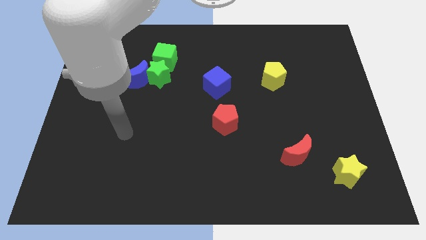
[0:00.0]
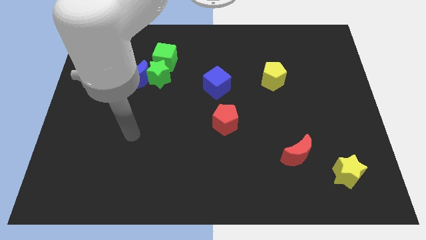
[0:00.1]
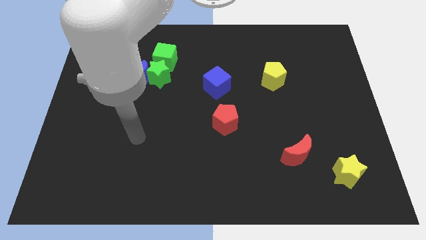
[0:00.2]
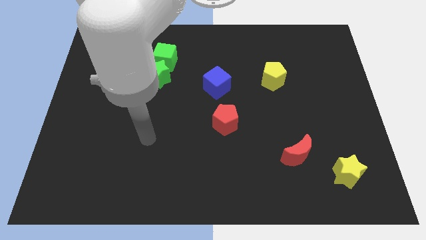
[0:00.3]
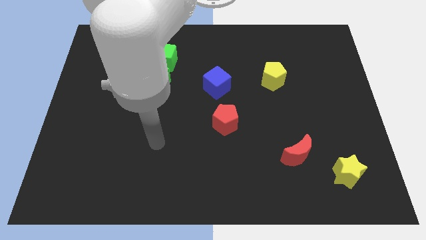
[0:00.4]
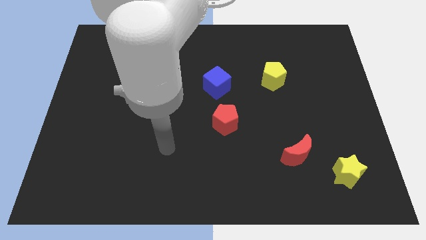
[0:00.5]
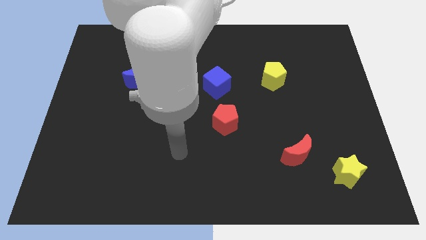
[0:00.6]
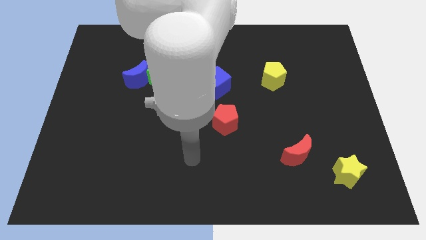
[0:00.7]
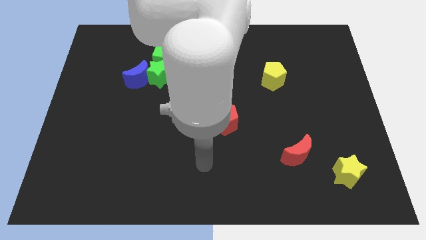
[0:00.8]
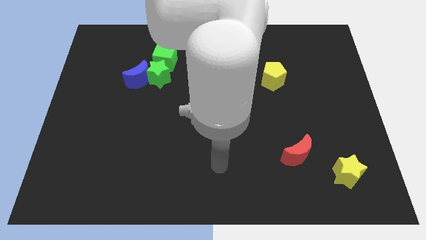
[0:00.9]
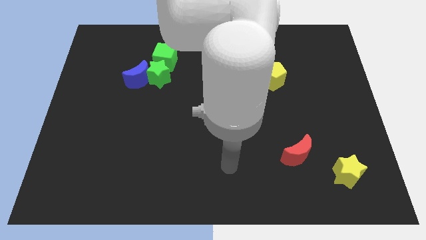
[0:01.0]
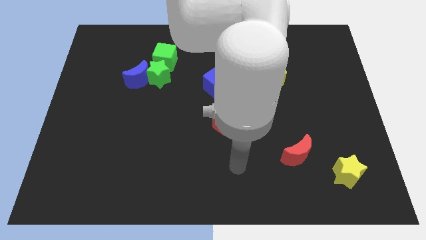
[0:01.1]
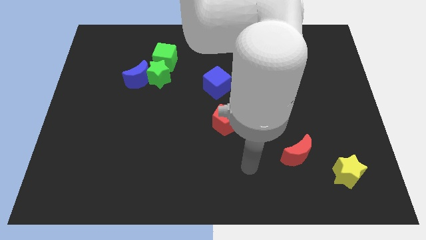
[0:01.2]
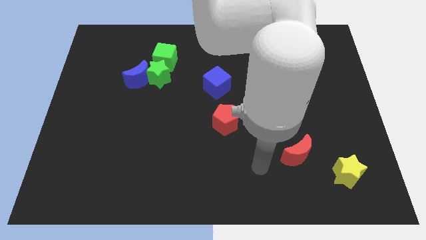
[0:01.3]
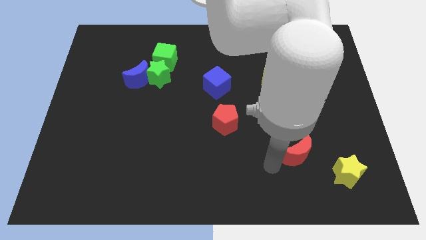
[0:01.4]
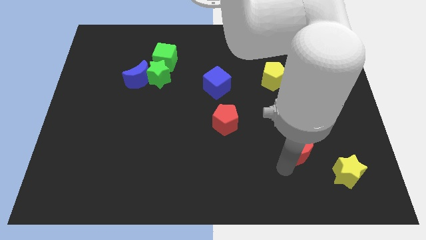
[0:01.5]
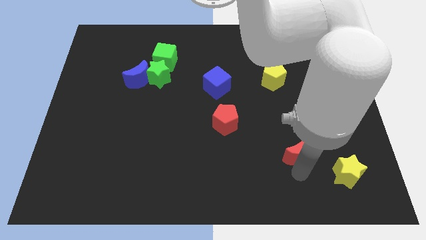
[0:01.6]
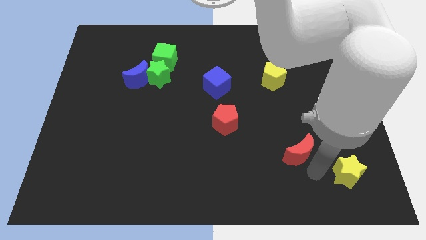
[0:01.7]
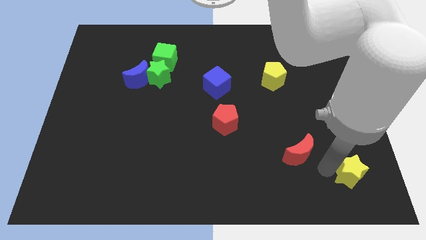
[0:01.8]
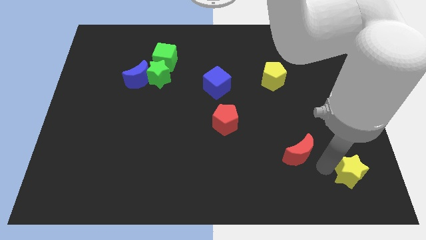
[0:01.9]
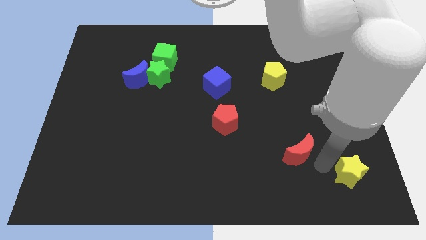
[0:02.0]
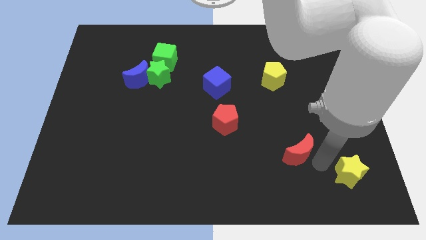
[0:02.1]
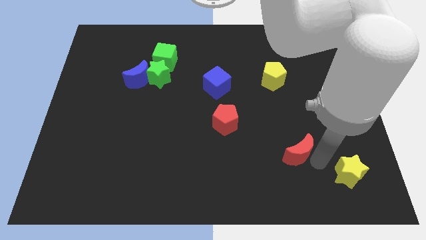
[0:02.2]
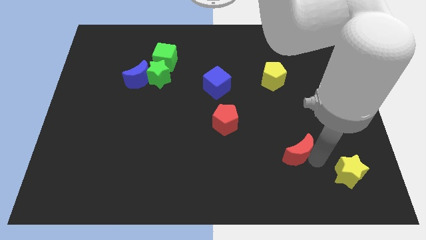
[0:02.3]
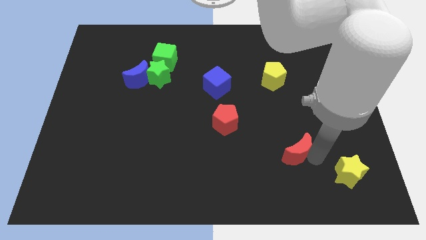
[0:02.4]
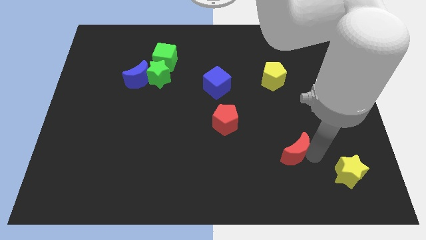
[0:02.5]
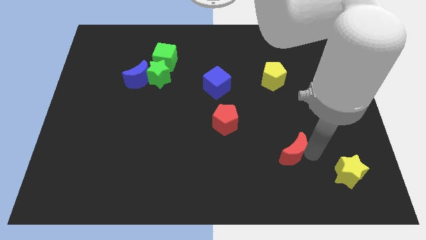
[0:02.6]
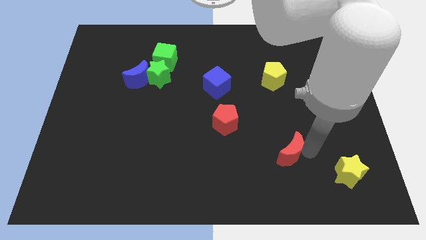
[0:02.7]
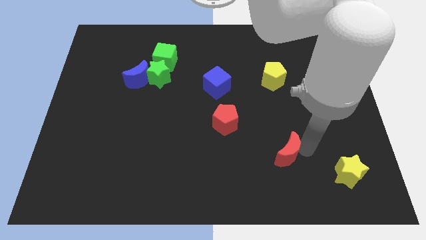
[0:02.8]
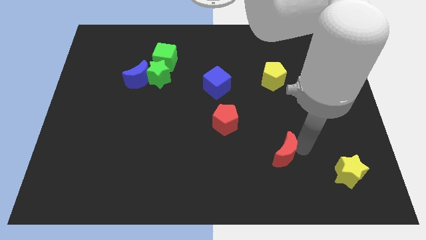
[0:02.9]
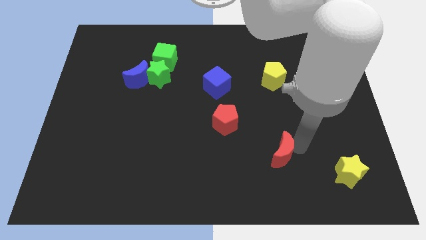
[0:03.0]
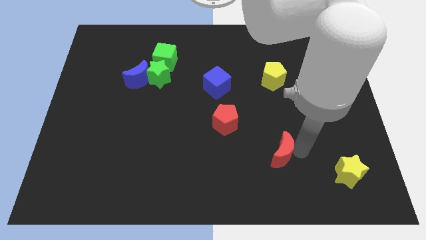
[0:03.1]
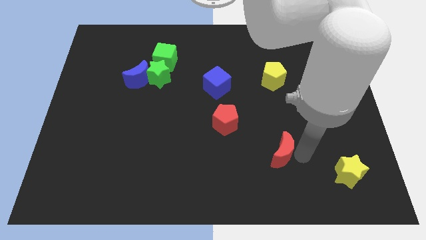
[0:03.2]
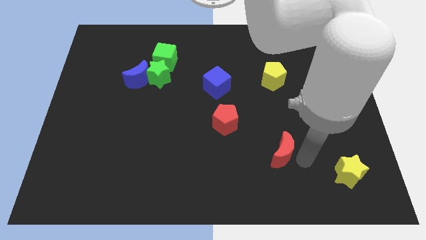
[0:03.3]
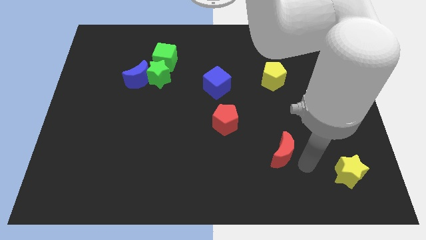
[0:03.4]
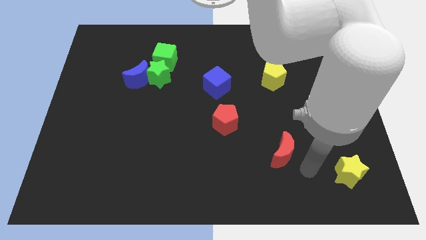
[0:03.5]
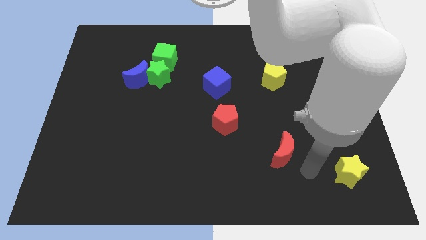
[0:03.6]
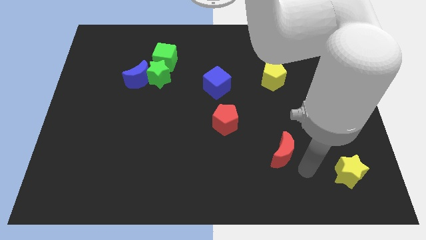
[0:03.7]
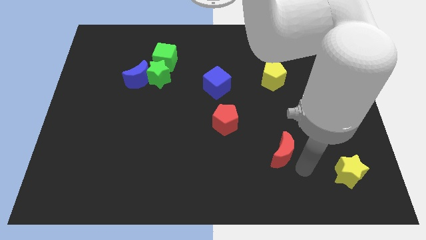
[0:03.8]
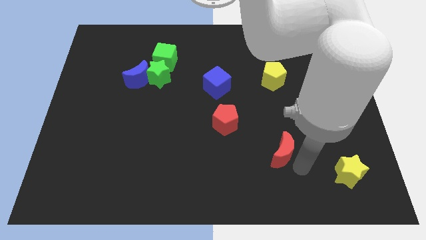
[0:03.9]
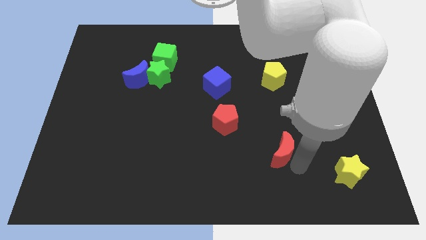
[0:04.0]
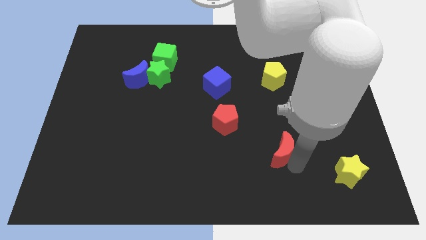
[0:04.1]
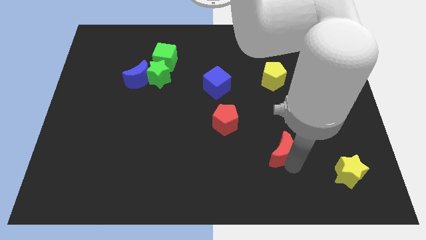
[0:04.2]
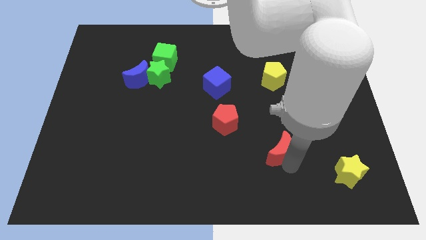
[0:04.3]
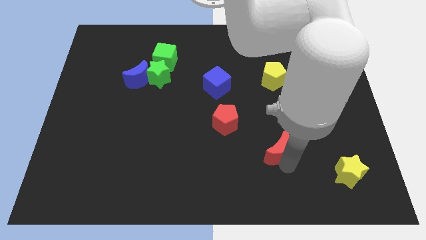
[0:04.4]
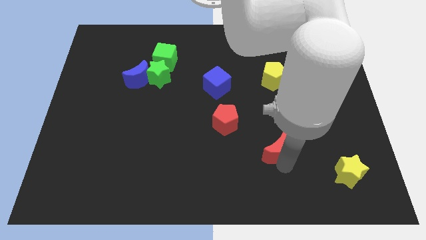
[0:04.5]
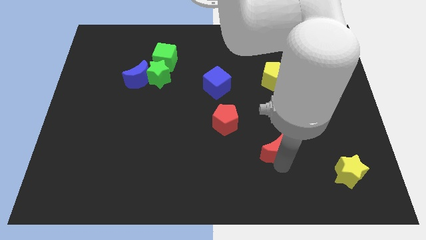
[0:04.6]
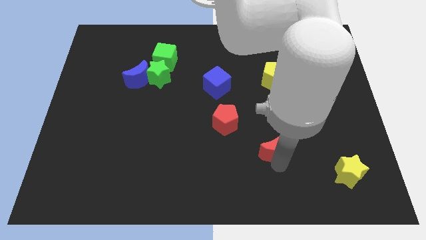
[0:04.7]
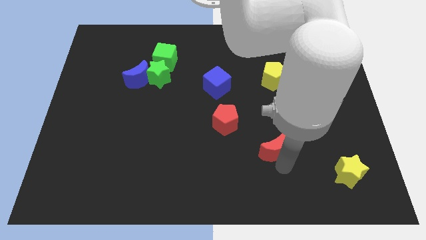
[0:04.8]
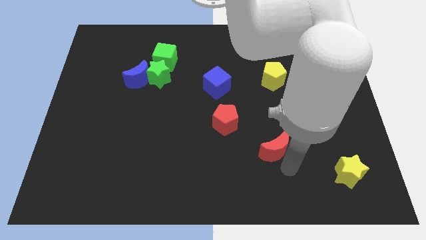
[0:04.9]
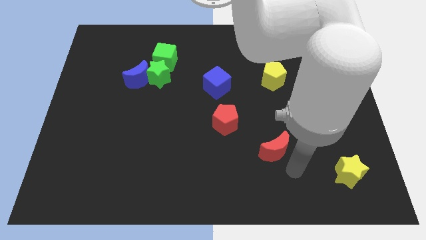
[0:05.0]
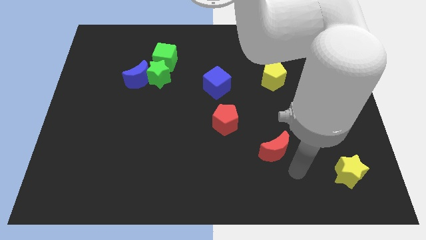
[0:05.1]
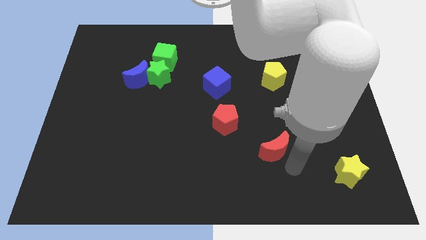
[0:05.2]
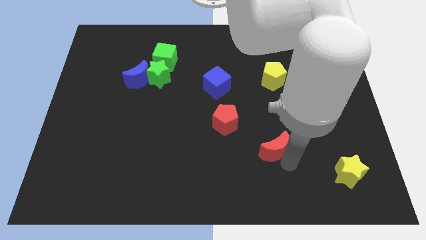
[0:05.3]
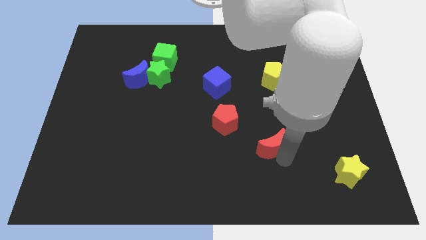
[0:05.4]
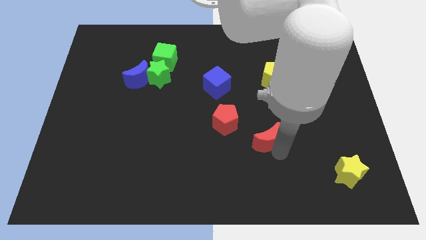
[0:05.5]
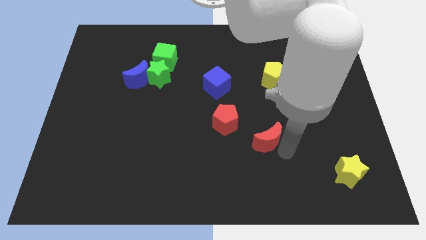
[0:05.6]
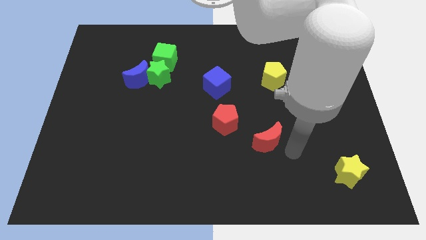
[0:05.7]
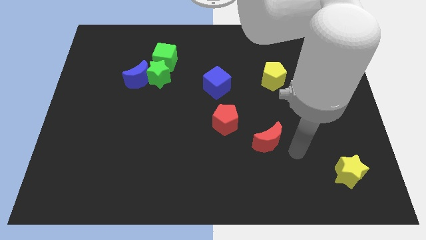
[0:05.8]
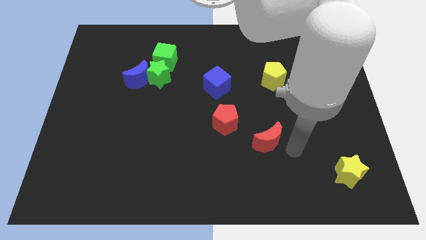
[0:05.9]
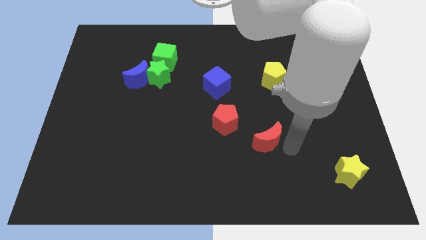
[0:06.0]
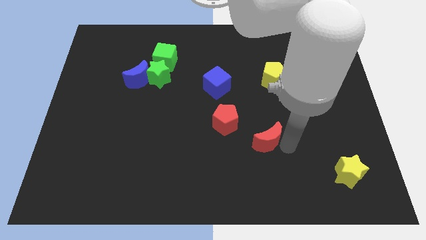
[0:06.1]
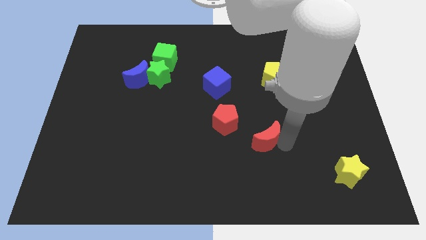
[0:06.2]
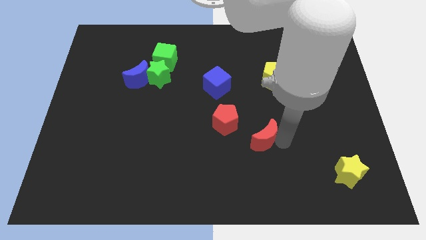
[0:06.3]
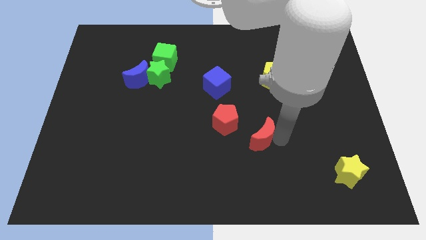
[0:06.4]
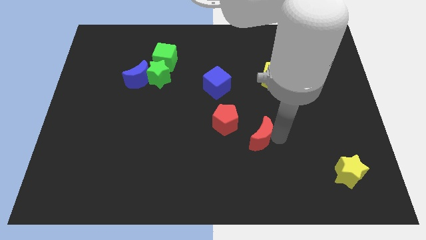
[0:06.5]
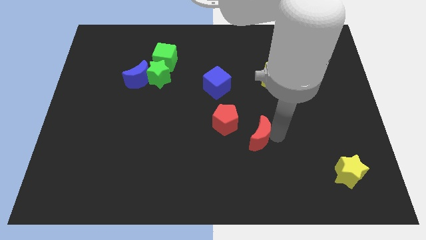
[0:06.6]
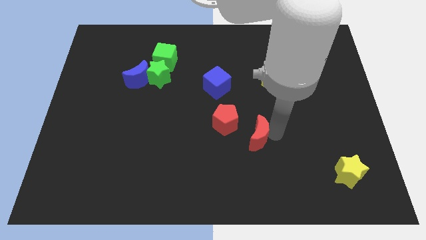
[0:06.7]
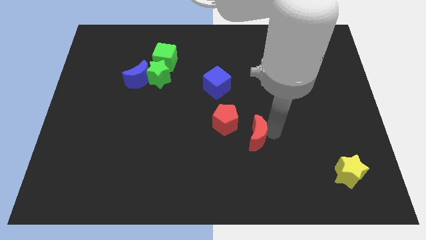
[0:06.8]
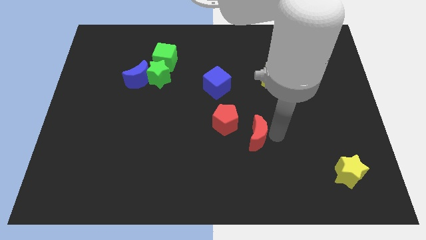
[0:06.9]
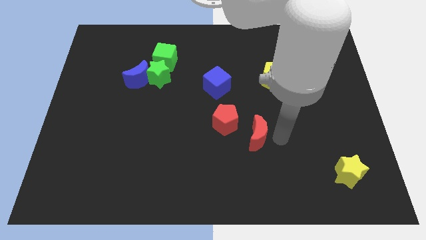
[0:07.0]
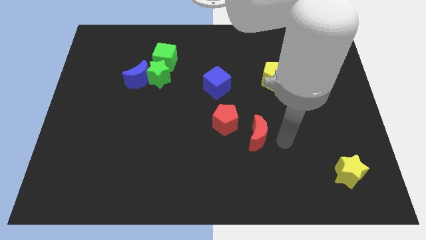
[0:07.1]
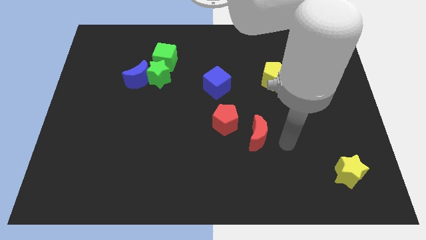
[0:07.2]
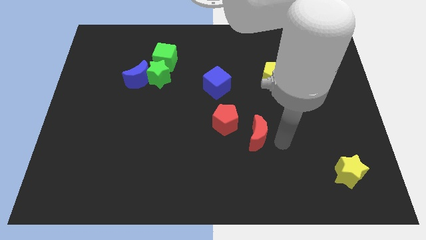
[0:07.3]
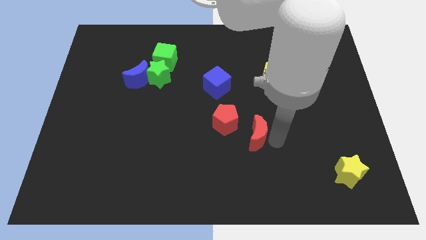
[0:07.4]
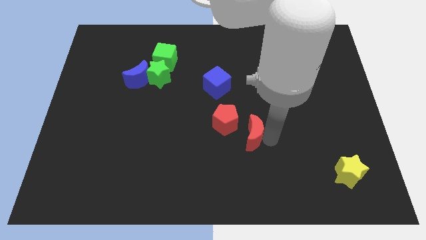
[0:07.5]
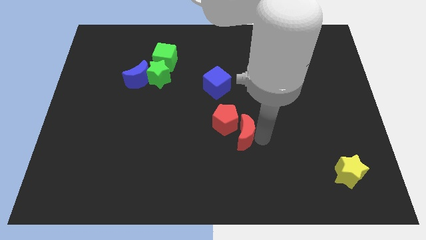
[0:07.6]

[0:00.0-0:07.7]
push the red moon towards the red pentagon
